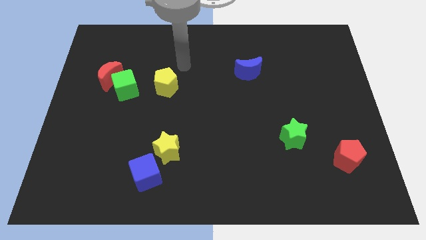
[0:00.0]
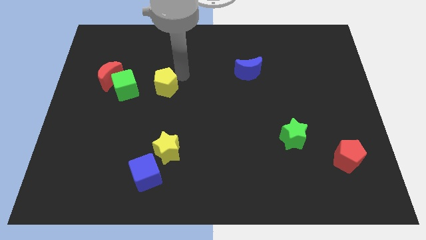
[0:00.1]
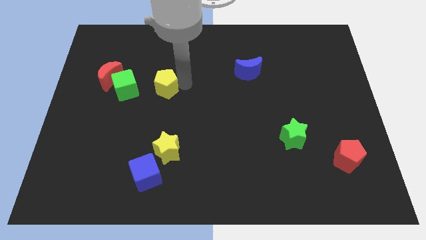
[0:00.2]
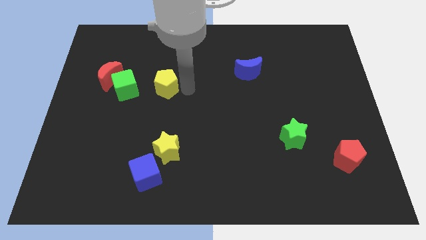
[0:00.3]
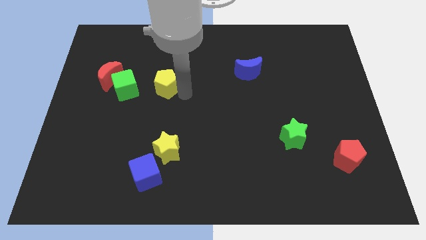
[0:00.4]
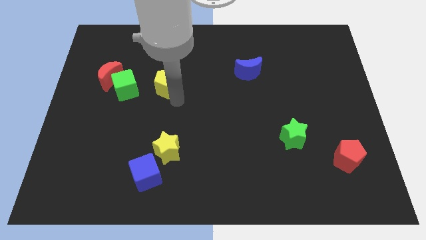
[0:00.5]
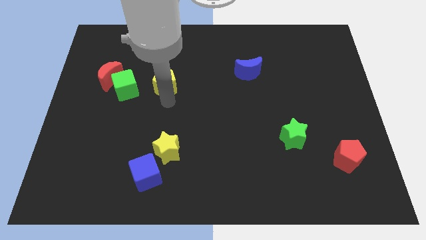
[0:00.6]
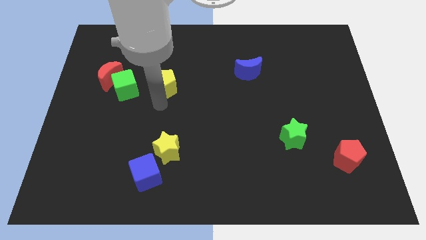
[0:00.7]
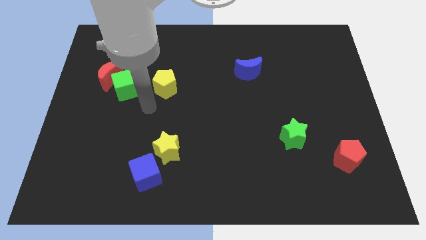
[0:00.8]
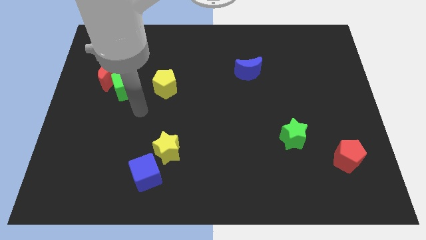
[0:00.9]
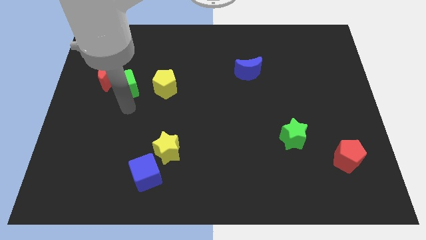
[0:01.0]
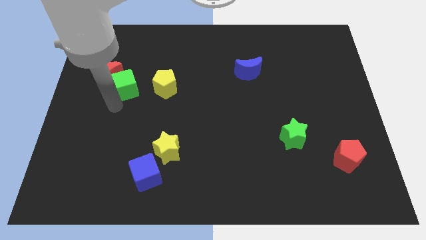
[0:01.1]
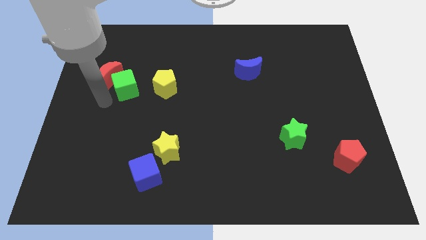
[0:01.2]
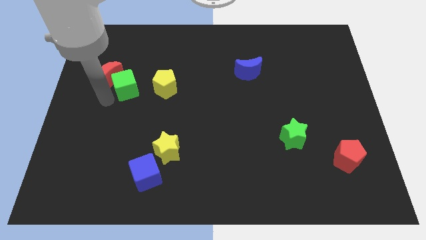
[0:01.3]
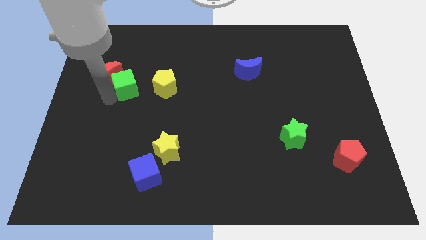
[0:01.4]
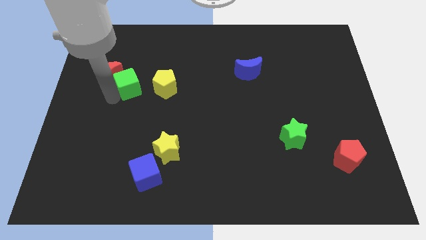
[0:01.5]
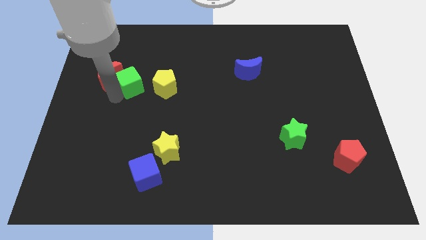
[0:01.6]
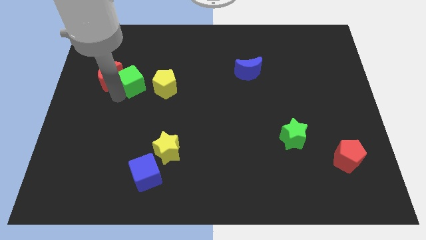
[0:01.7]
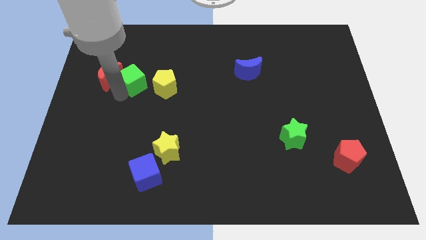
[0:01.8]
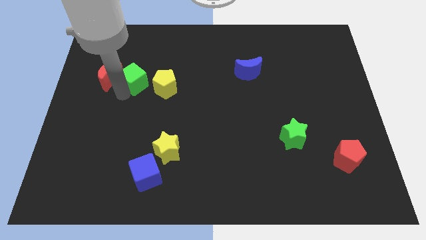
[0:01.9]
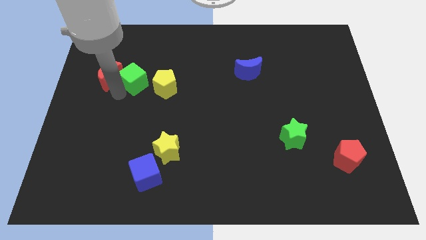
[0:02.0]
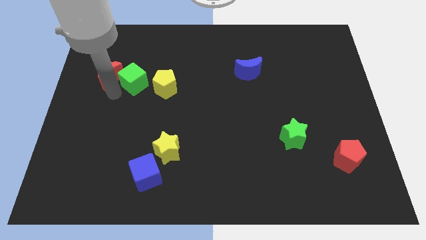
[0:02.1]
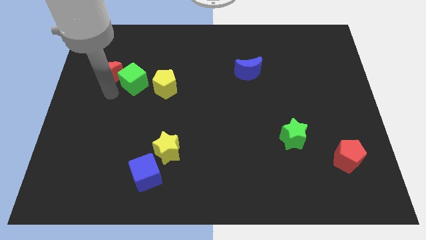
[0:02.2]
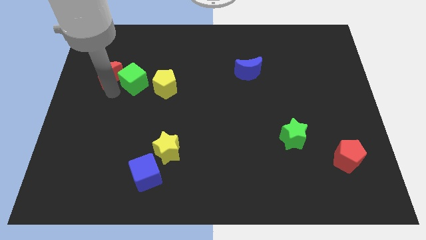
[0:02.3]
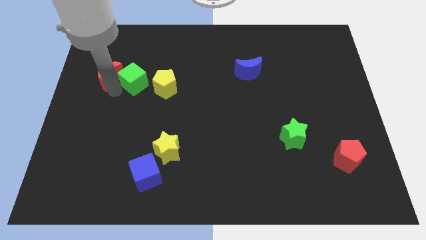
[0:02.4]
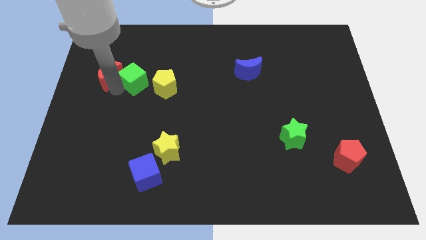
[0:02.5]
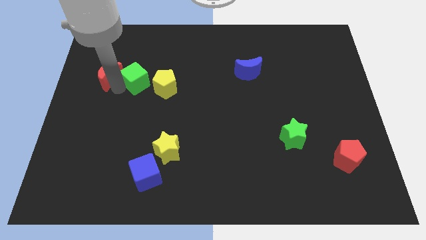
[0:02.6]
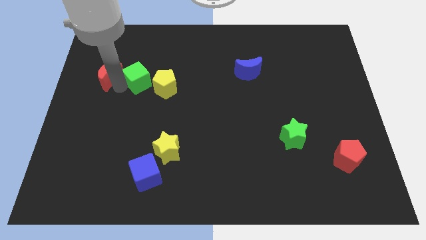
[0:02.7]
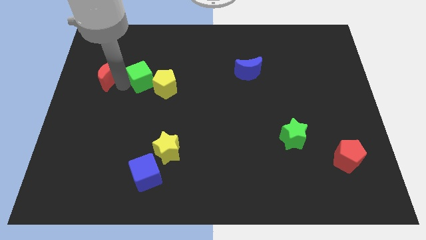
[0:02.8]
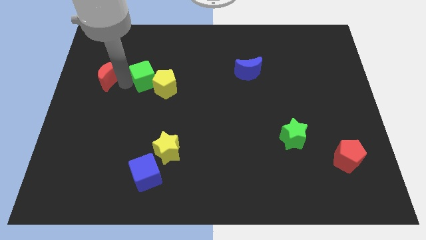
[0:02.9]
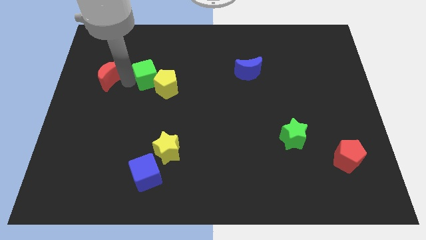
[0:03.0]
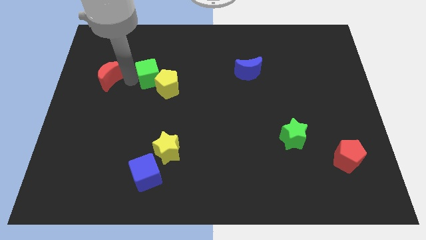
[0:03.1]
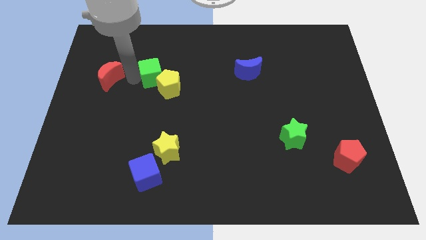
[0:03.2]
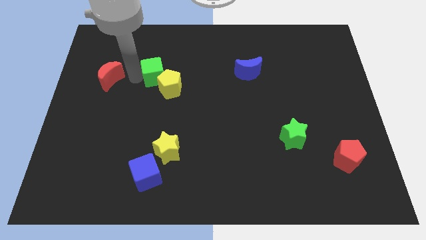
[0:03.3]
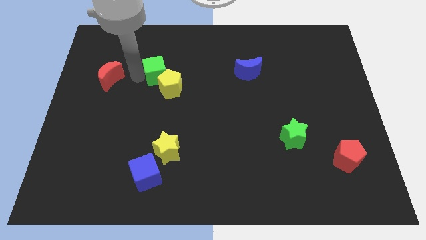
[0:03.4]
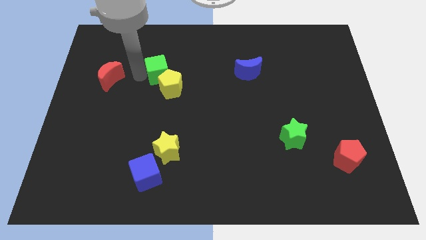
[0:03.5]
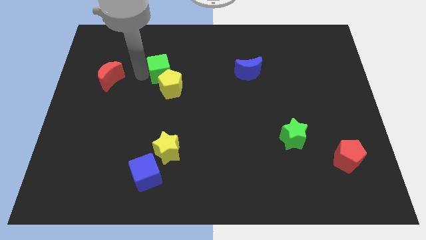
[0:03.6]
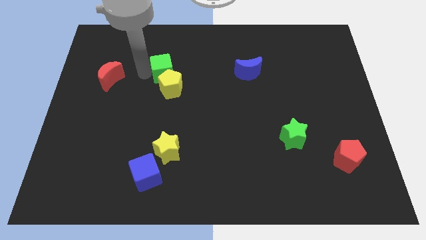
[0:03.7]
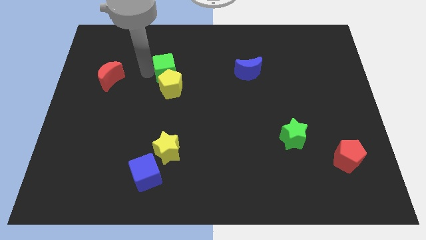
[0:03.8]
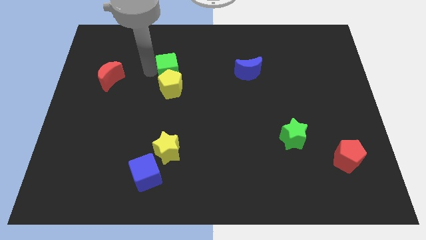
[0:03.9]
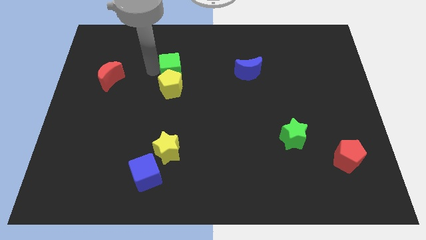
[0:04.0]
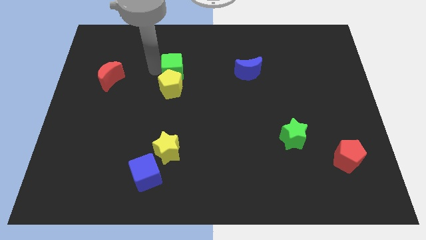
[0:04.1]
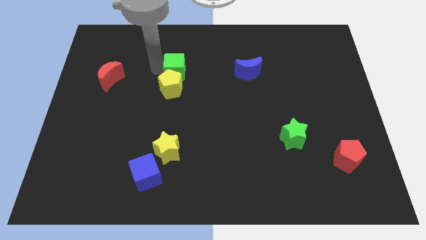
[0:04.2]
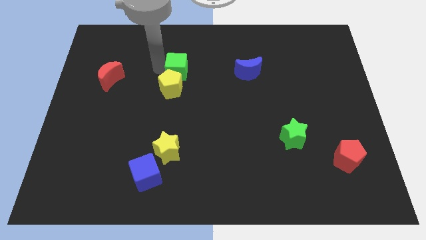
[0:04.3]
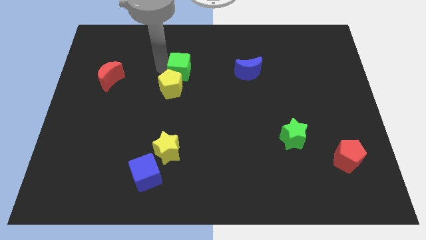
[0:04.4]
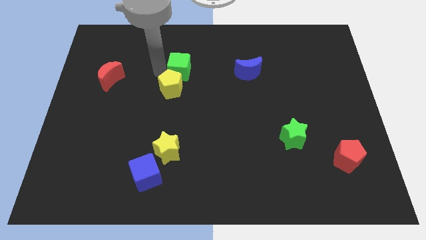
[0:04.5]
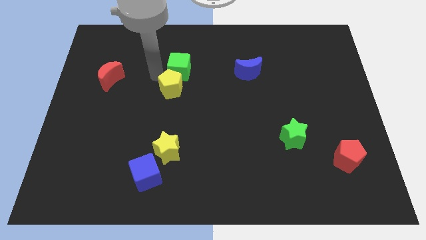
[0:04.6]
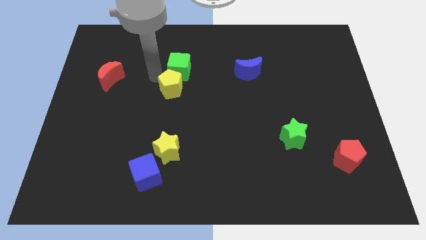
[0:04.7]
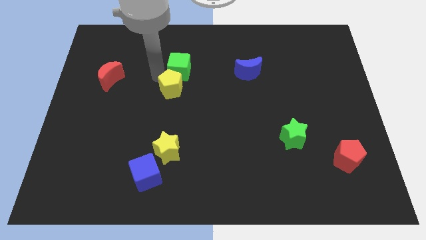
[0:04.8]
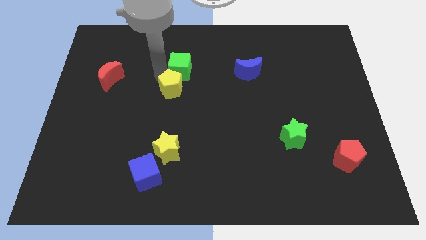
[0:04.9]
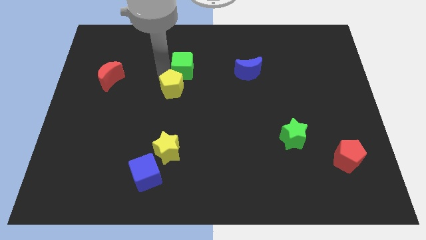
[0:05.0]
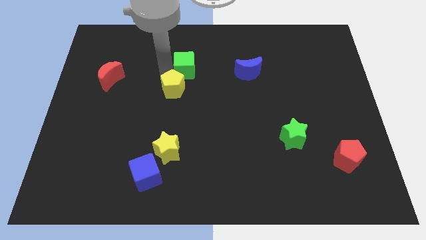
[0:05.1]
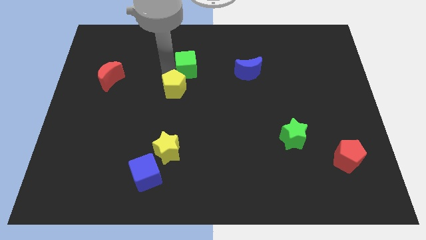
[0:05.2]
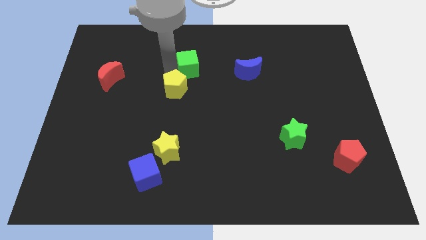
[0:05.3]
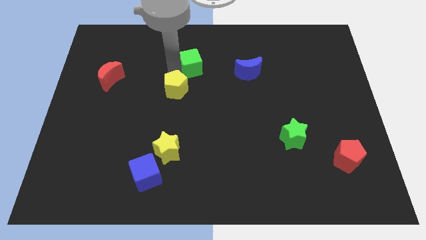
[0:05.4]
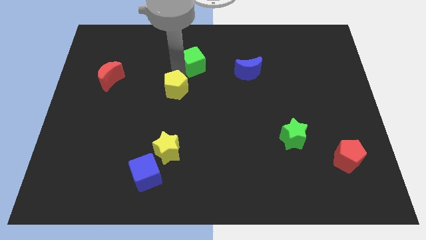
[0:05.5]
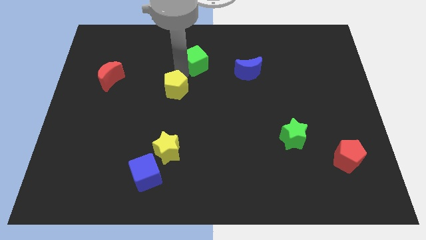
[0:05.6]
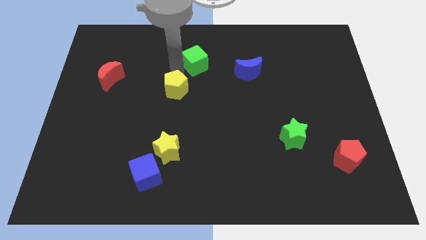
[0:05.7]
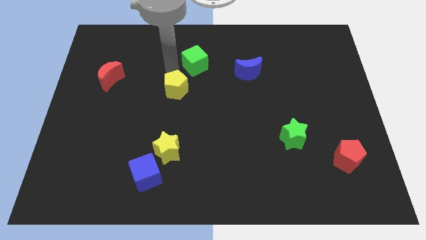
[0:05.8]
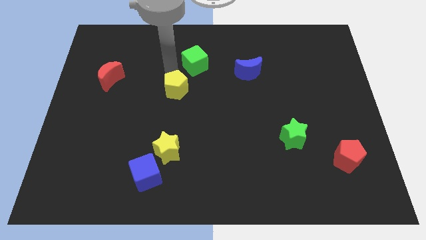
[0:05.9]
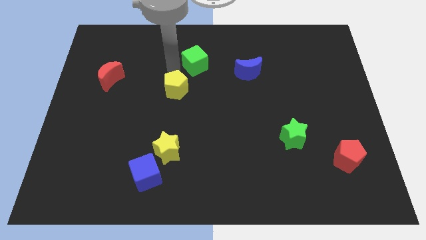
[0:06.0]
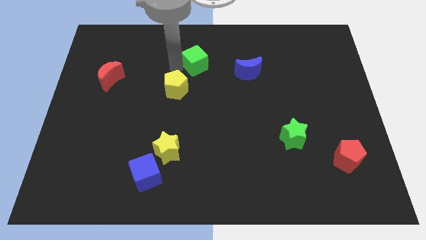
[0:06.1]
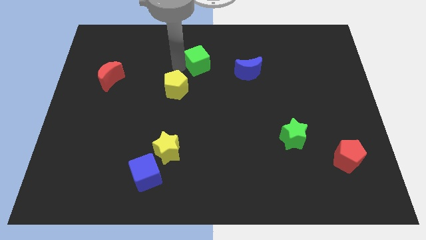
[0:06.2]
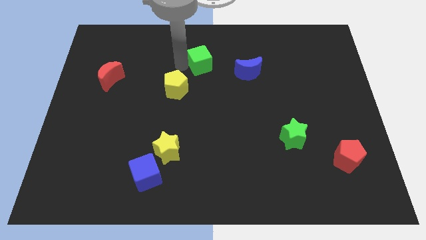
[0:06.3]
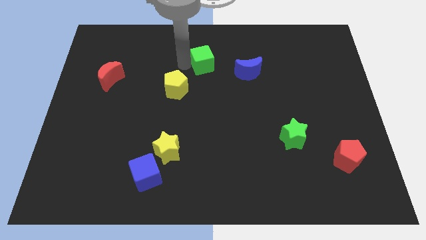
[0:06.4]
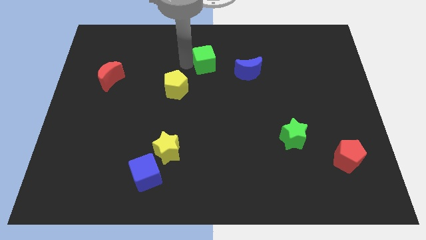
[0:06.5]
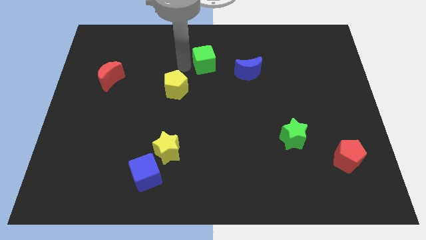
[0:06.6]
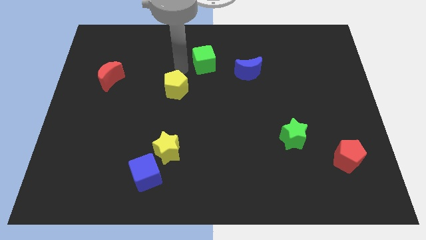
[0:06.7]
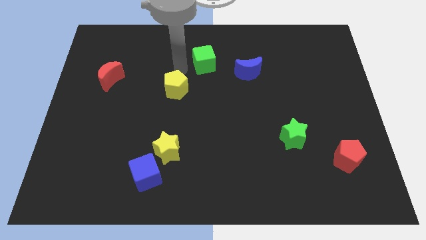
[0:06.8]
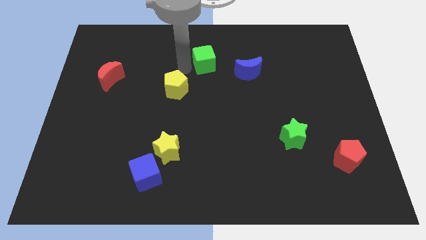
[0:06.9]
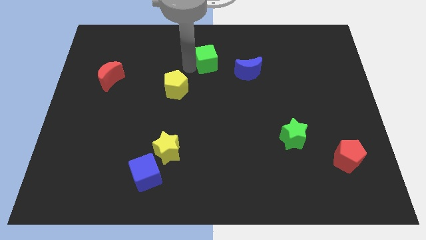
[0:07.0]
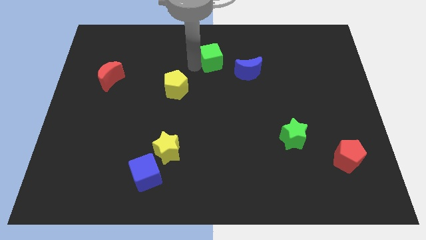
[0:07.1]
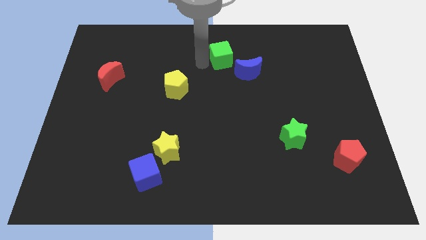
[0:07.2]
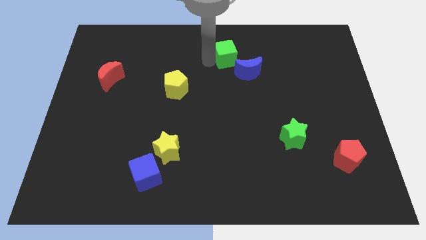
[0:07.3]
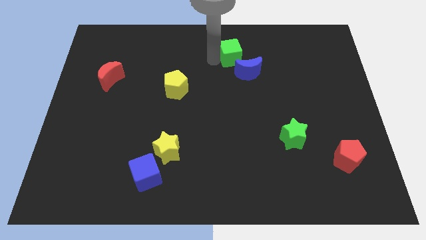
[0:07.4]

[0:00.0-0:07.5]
slide the green cube to the top
